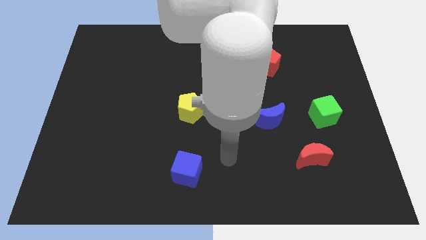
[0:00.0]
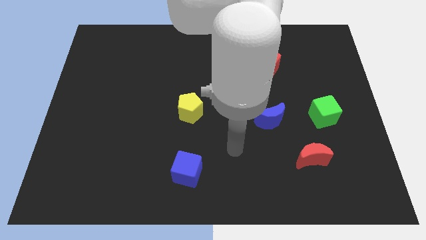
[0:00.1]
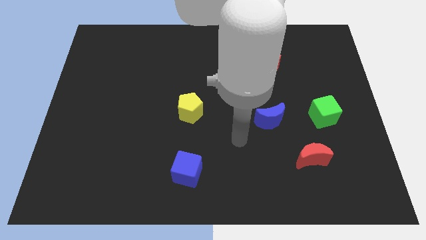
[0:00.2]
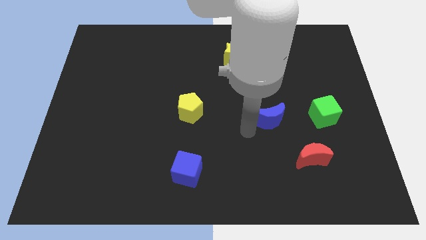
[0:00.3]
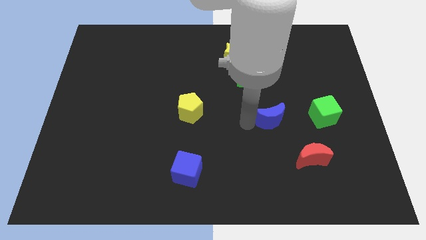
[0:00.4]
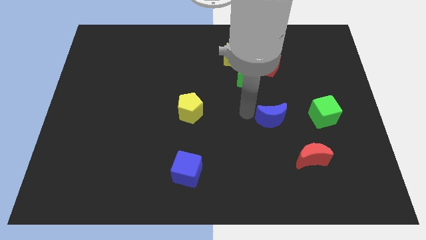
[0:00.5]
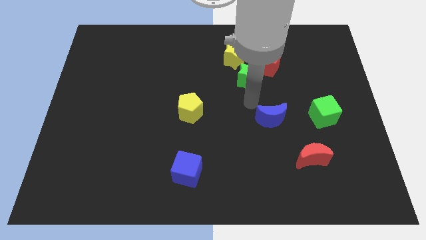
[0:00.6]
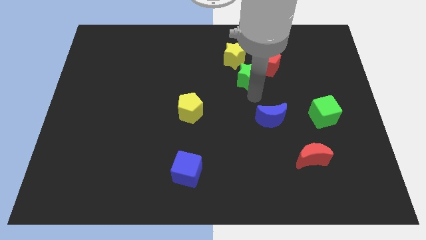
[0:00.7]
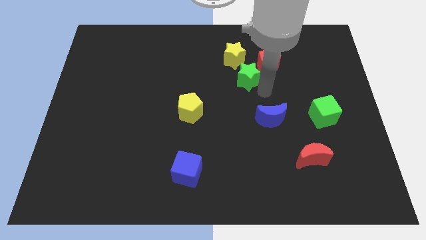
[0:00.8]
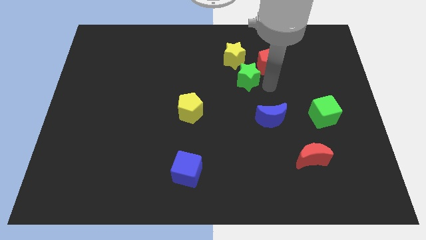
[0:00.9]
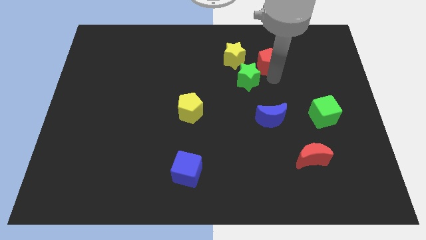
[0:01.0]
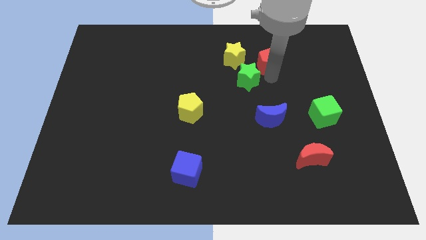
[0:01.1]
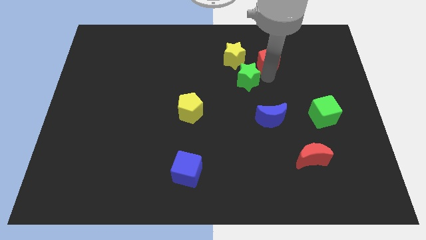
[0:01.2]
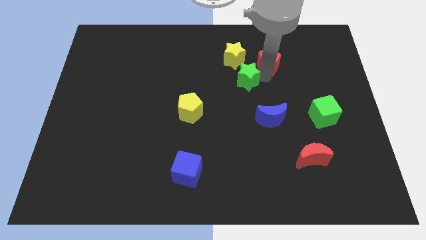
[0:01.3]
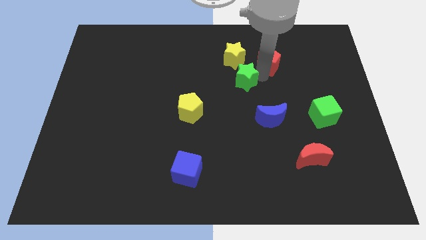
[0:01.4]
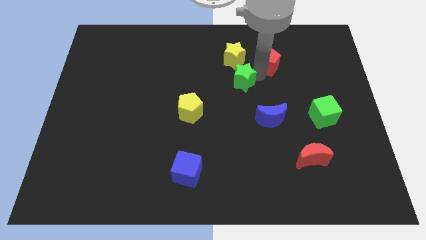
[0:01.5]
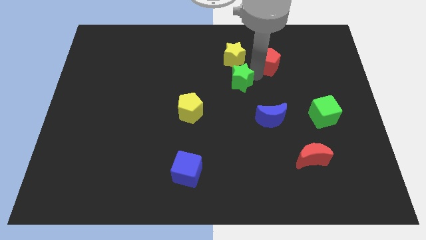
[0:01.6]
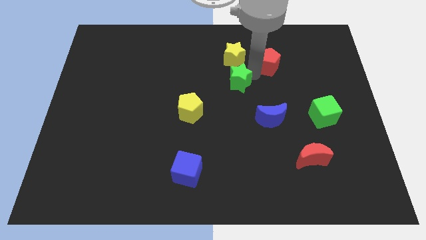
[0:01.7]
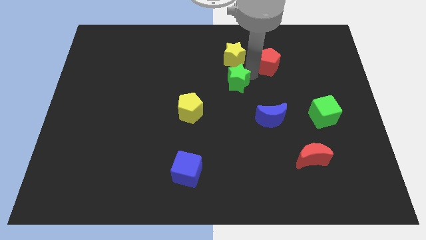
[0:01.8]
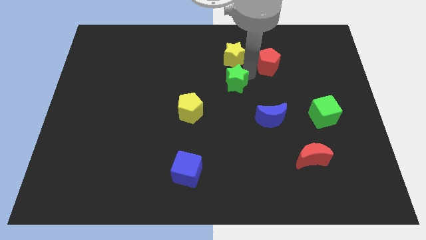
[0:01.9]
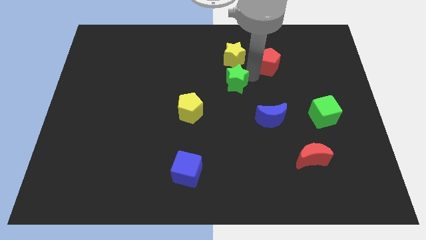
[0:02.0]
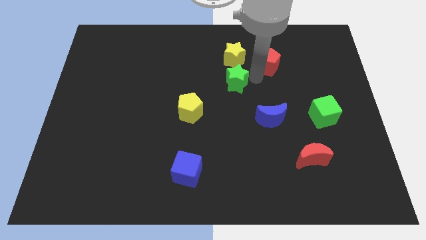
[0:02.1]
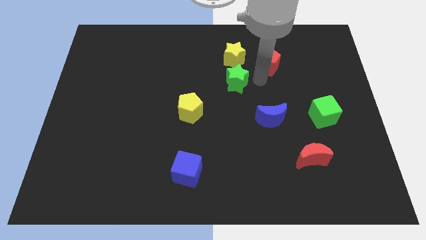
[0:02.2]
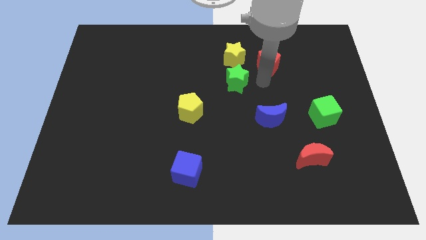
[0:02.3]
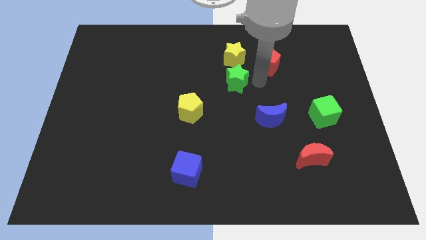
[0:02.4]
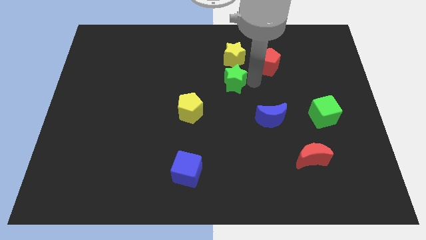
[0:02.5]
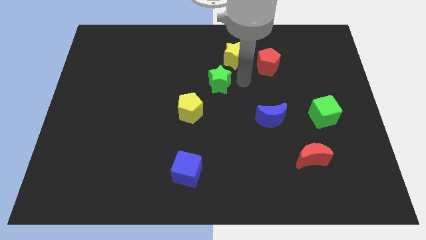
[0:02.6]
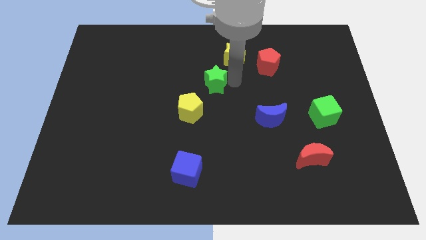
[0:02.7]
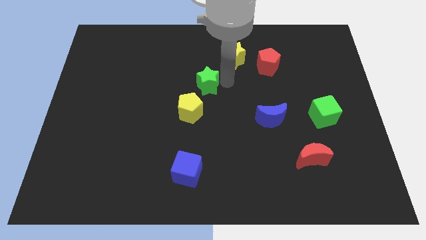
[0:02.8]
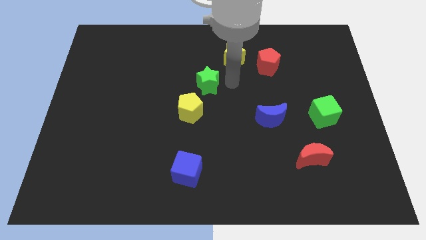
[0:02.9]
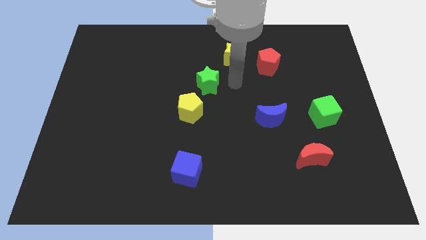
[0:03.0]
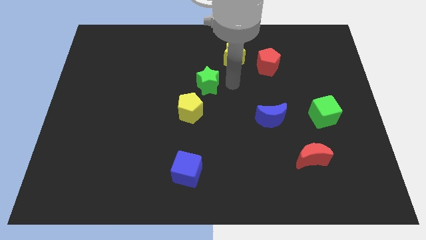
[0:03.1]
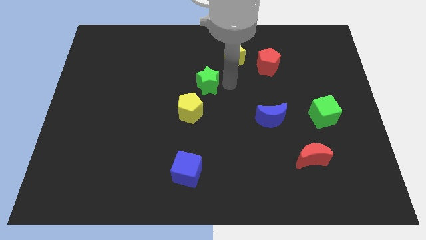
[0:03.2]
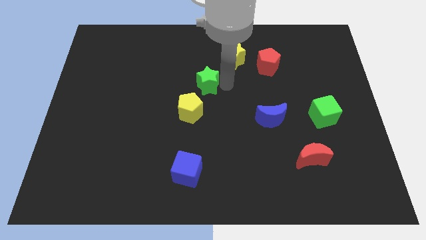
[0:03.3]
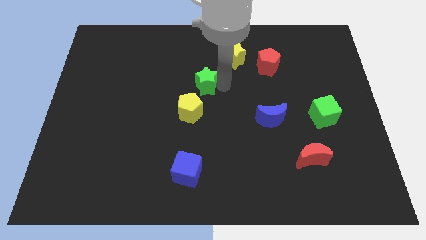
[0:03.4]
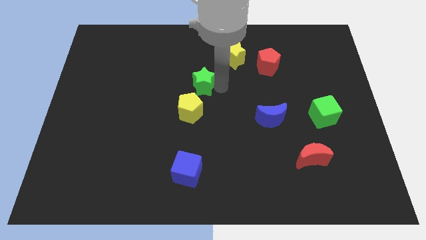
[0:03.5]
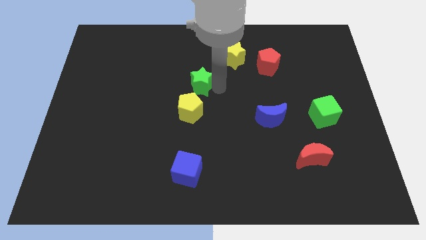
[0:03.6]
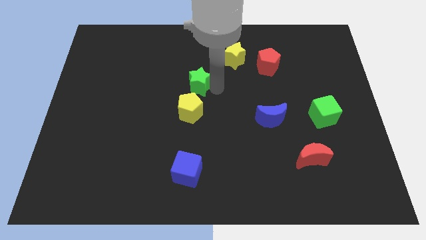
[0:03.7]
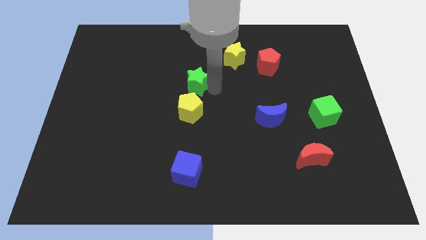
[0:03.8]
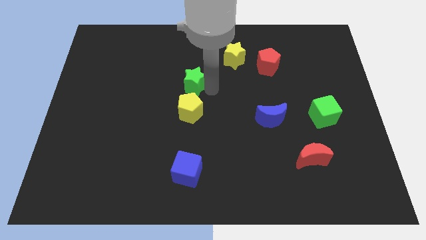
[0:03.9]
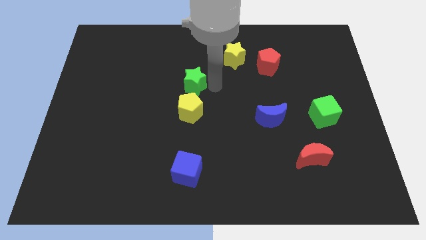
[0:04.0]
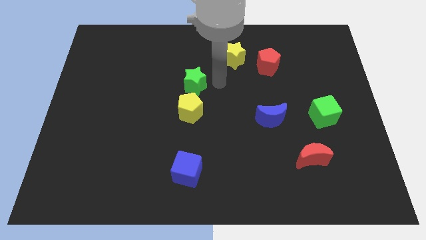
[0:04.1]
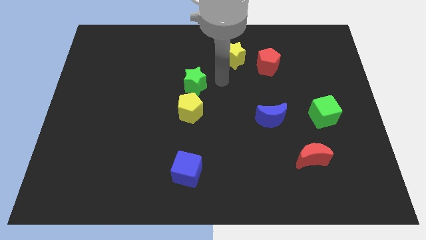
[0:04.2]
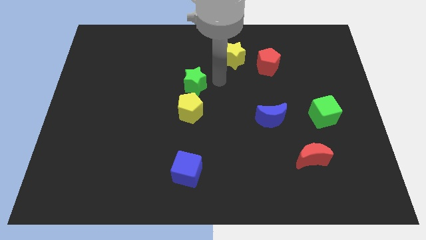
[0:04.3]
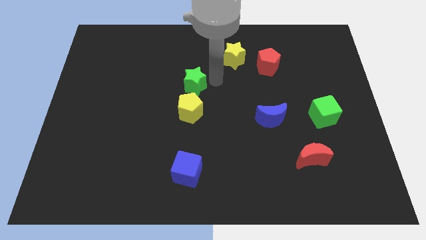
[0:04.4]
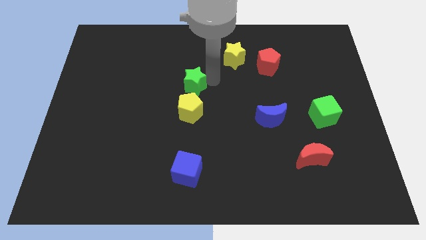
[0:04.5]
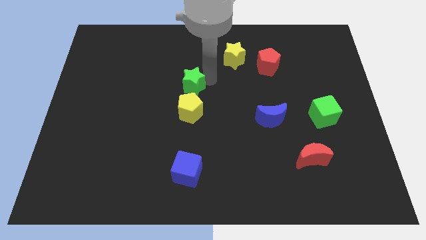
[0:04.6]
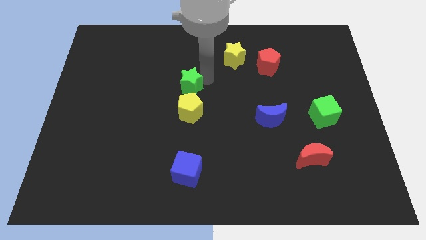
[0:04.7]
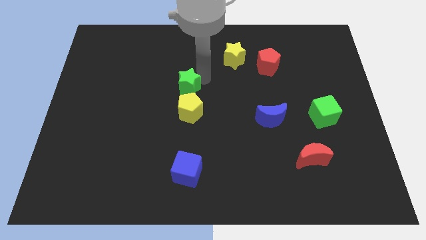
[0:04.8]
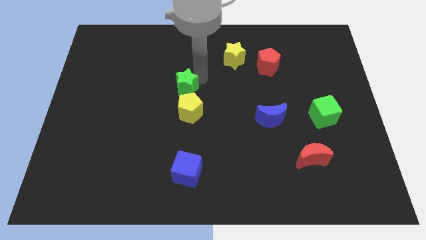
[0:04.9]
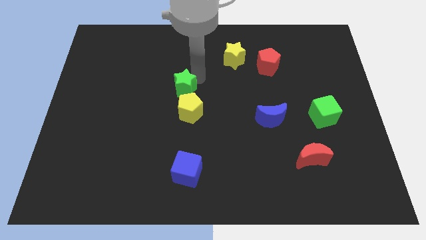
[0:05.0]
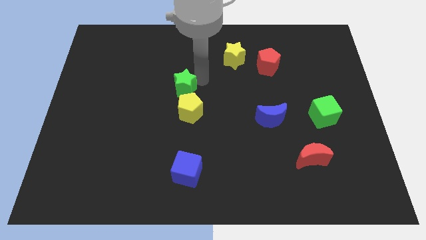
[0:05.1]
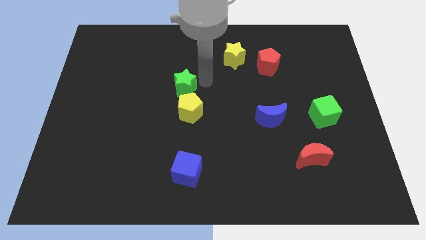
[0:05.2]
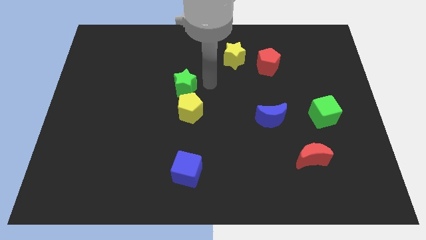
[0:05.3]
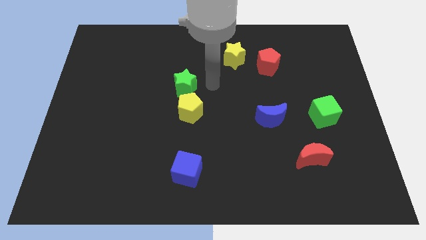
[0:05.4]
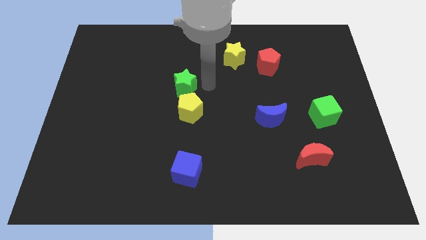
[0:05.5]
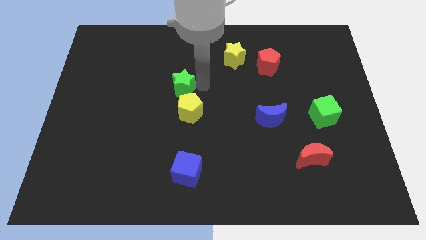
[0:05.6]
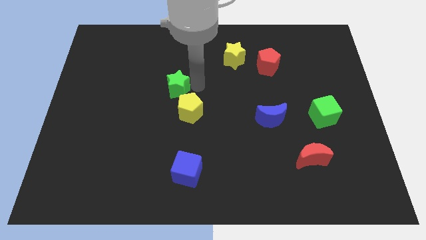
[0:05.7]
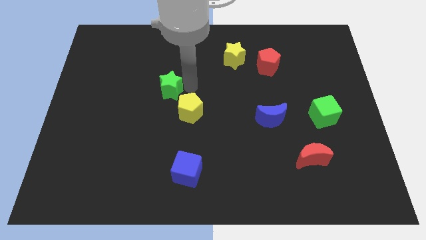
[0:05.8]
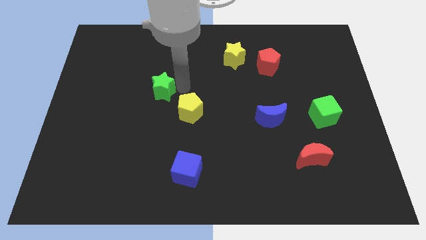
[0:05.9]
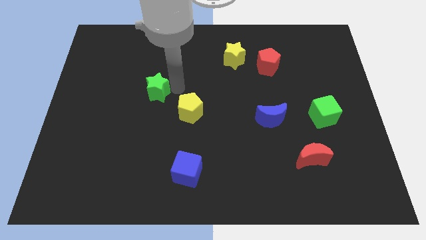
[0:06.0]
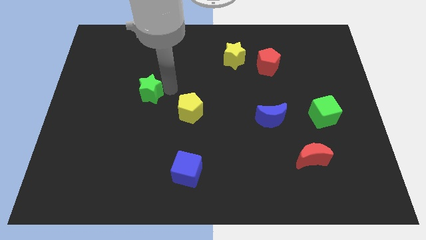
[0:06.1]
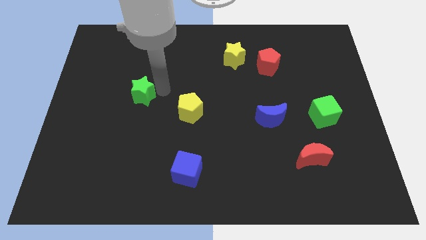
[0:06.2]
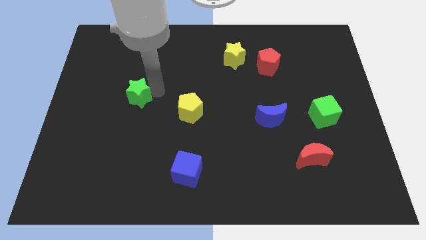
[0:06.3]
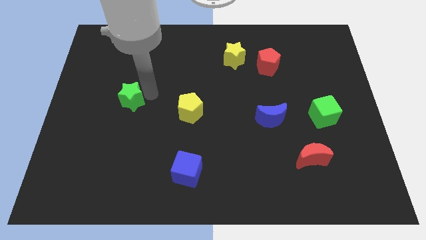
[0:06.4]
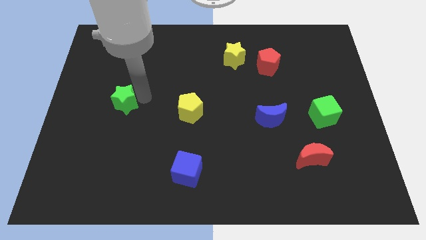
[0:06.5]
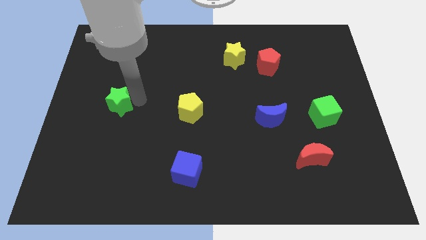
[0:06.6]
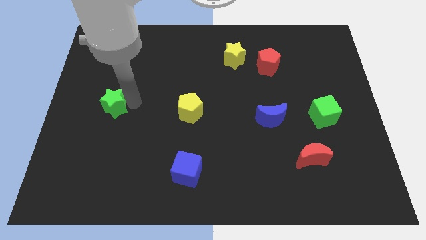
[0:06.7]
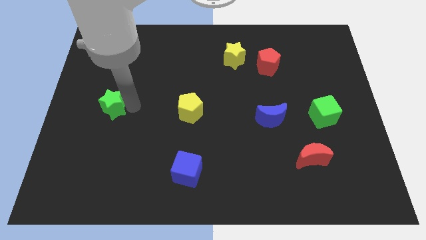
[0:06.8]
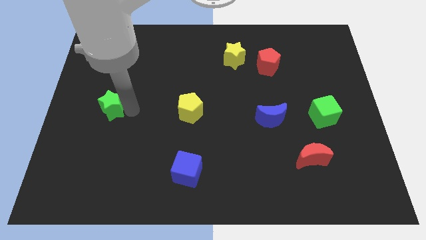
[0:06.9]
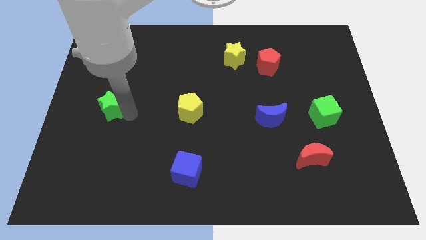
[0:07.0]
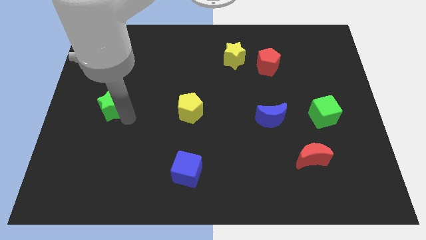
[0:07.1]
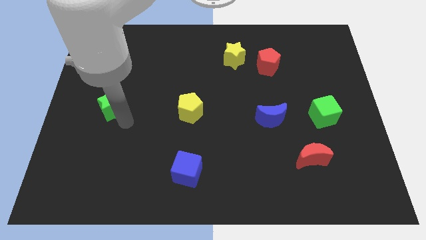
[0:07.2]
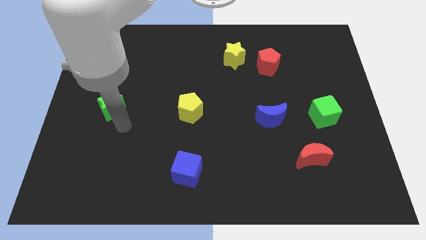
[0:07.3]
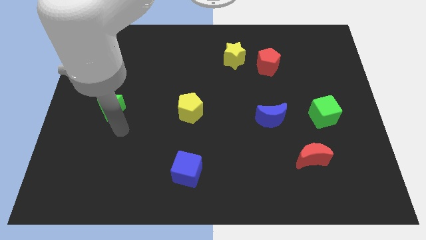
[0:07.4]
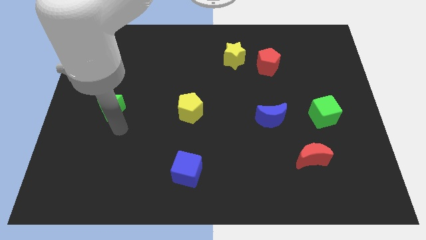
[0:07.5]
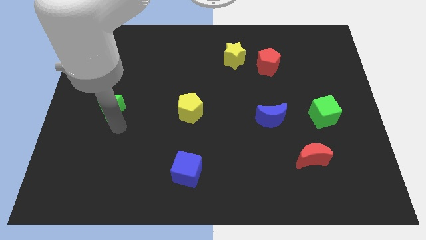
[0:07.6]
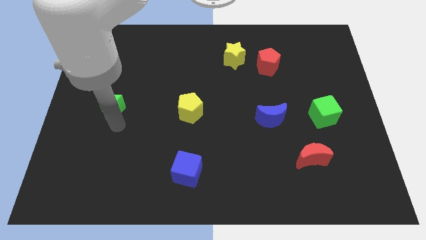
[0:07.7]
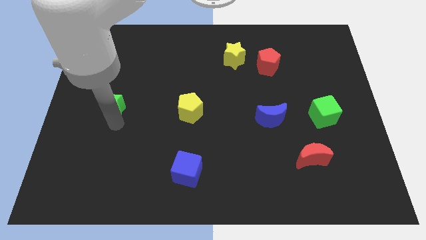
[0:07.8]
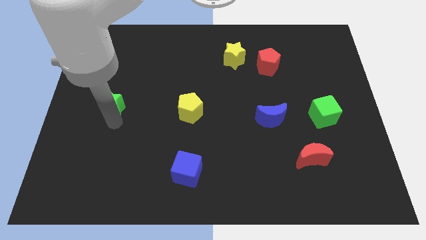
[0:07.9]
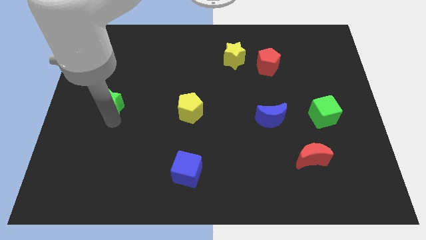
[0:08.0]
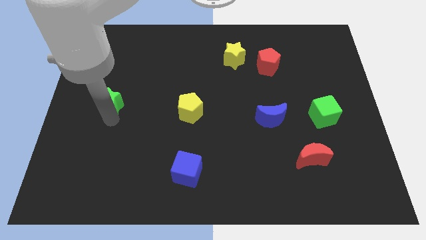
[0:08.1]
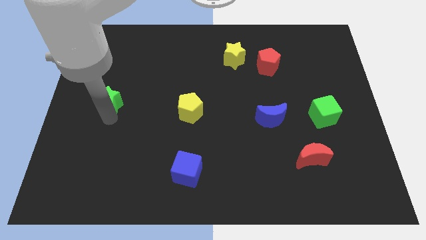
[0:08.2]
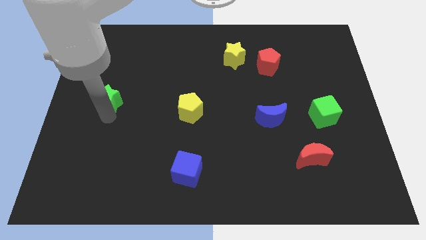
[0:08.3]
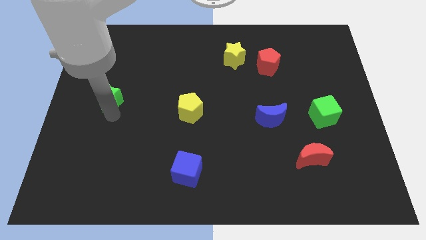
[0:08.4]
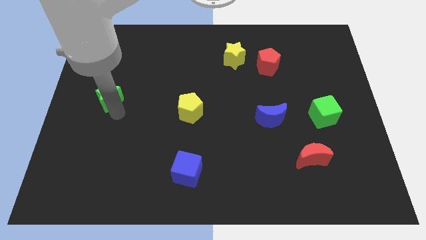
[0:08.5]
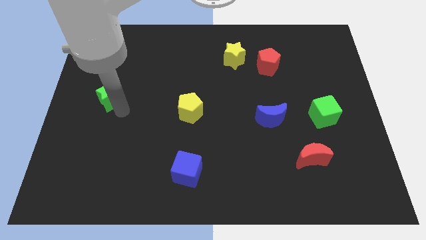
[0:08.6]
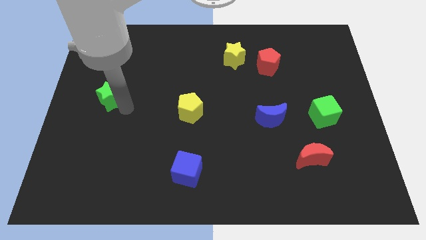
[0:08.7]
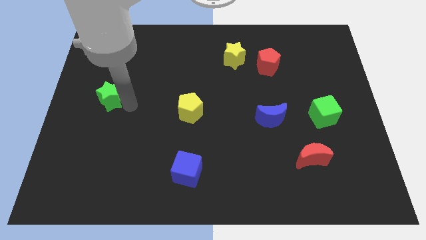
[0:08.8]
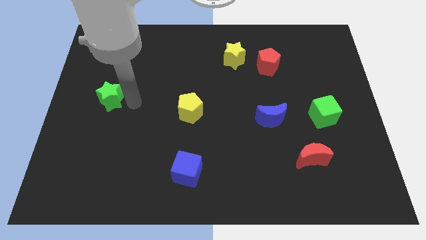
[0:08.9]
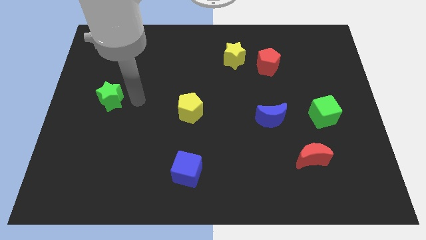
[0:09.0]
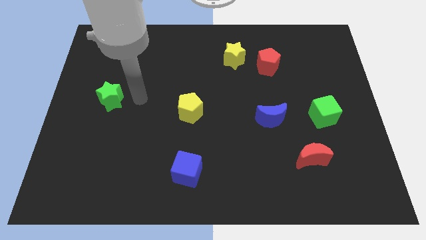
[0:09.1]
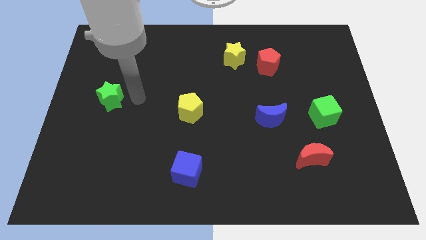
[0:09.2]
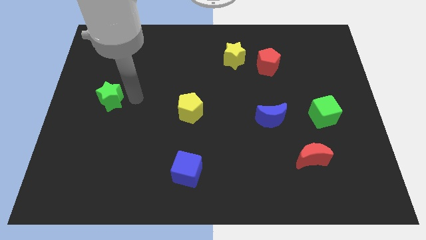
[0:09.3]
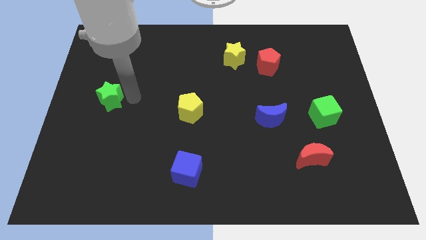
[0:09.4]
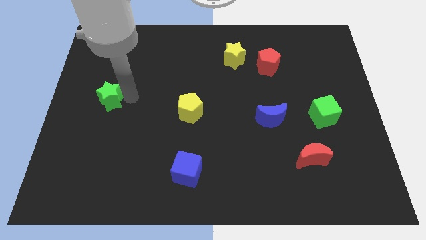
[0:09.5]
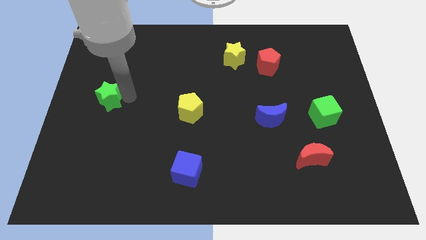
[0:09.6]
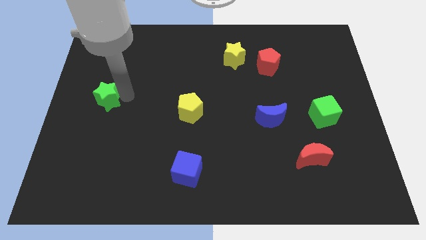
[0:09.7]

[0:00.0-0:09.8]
push the green star to the left side
